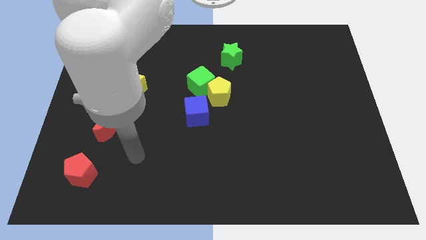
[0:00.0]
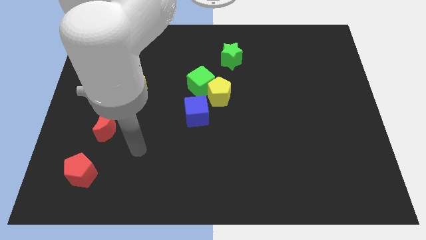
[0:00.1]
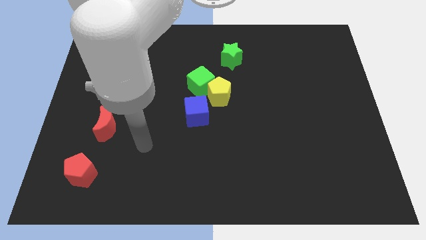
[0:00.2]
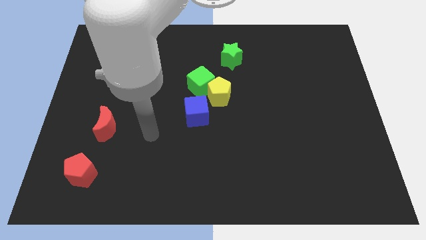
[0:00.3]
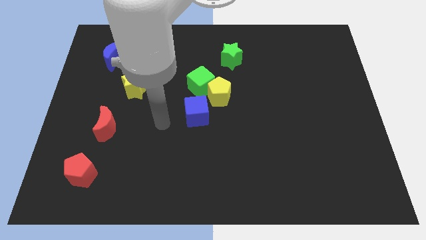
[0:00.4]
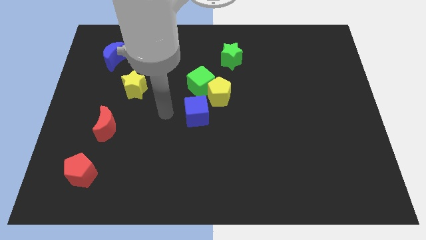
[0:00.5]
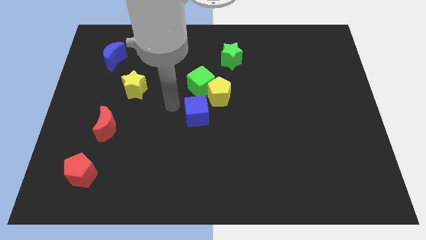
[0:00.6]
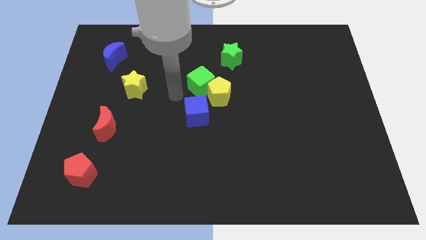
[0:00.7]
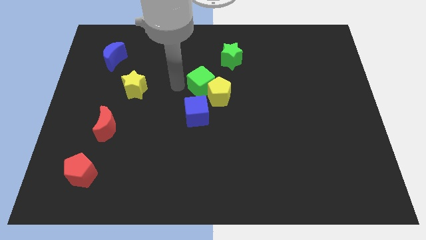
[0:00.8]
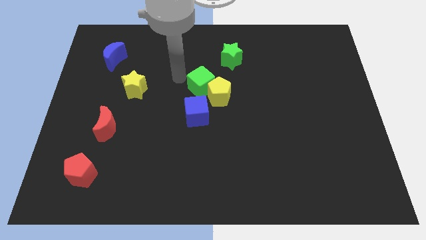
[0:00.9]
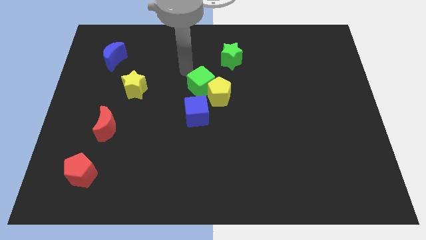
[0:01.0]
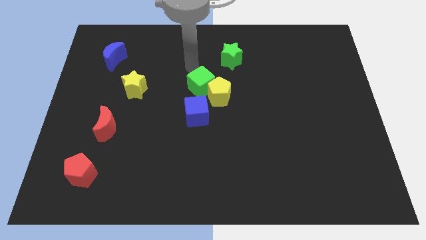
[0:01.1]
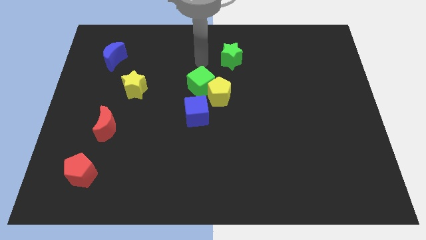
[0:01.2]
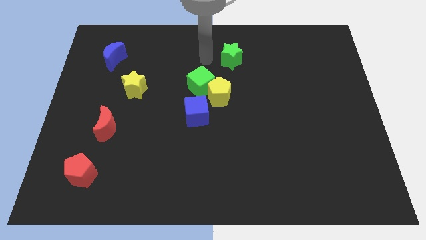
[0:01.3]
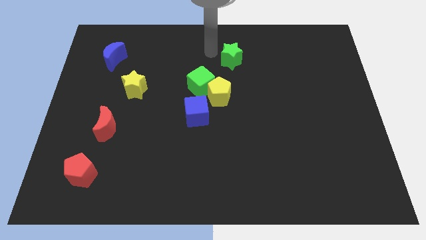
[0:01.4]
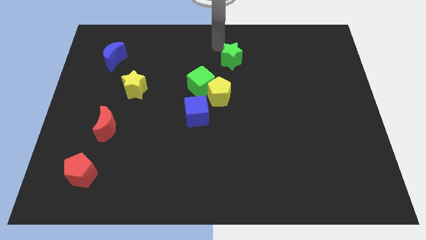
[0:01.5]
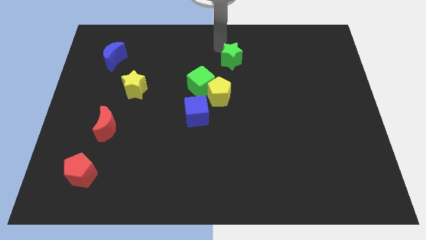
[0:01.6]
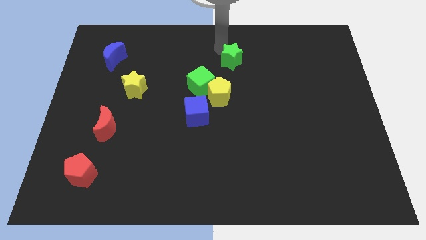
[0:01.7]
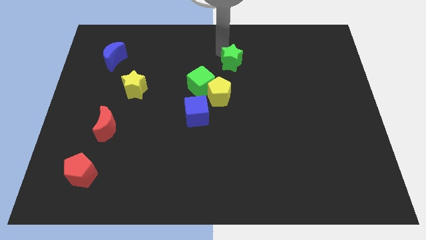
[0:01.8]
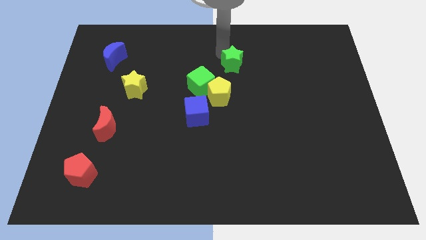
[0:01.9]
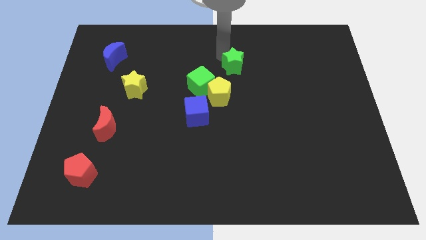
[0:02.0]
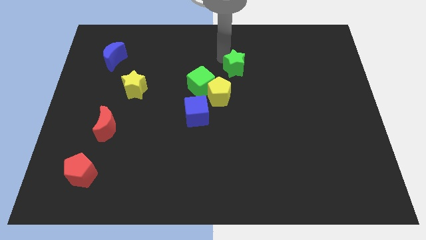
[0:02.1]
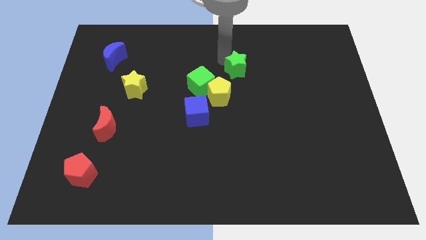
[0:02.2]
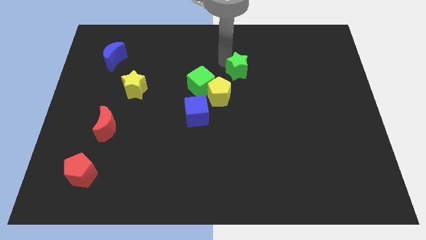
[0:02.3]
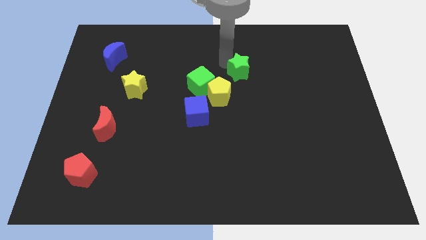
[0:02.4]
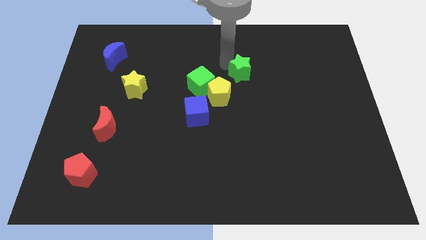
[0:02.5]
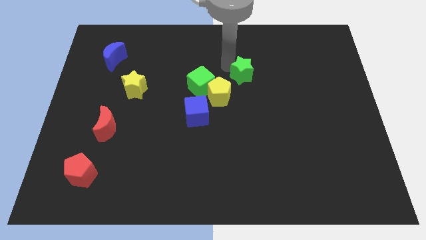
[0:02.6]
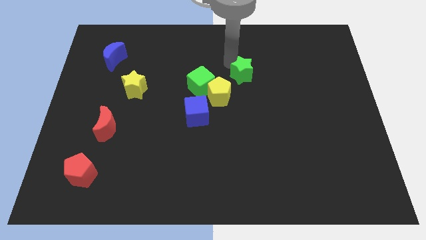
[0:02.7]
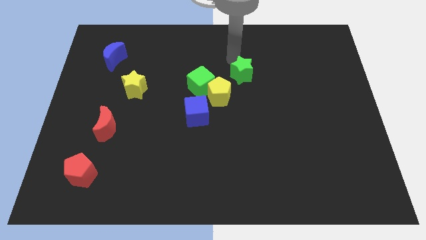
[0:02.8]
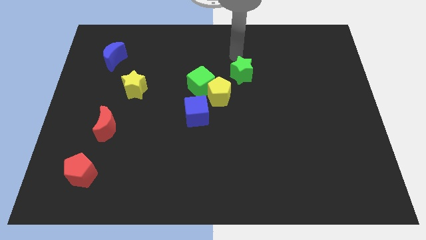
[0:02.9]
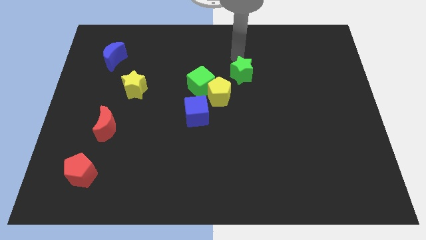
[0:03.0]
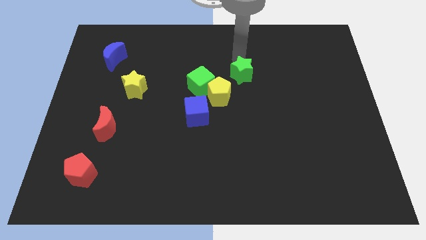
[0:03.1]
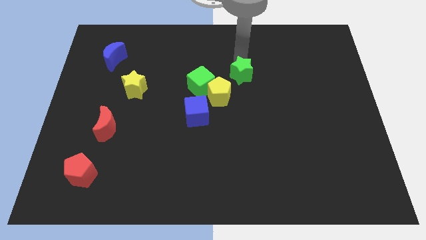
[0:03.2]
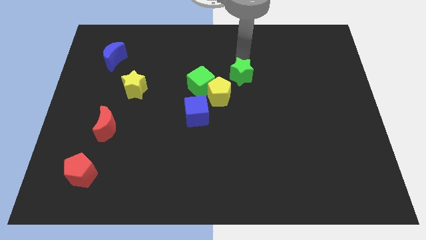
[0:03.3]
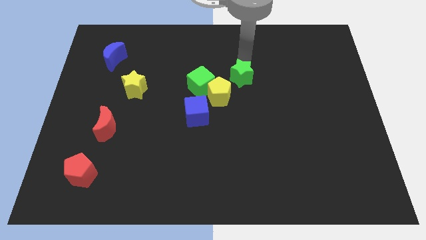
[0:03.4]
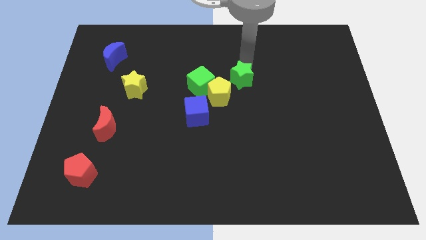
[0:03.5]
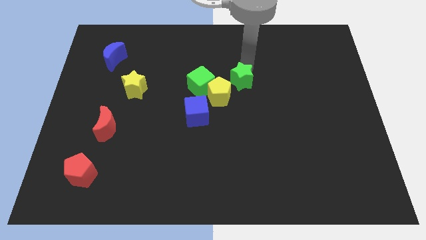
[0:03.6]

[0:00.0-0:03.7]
move the green star downwards a little bit

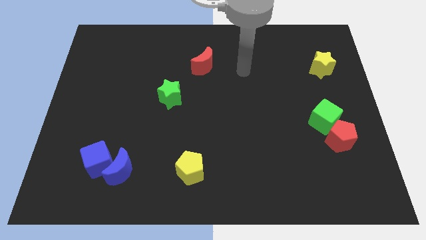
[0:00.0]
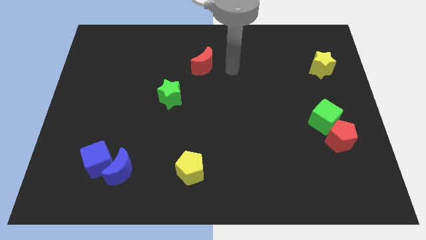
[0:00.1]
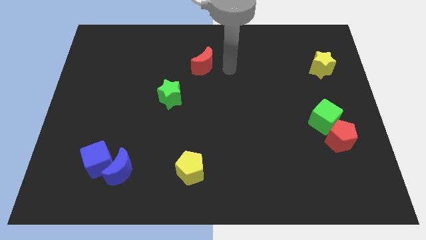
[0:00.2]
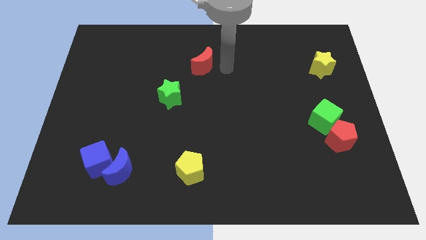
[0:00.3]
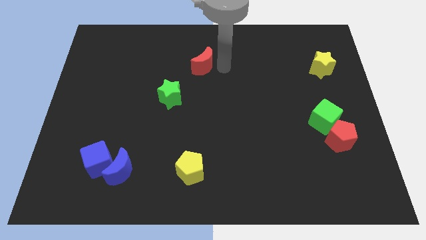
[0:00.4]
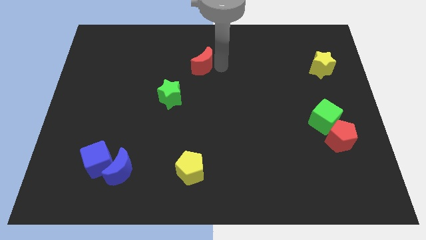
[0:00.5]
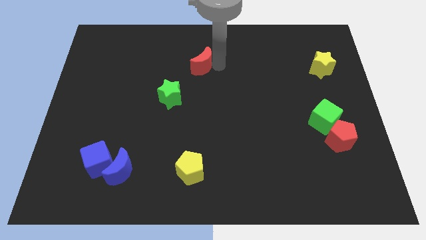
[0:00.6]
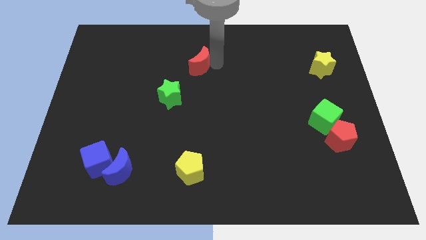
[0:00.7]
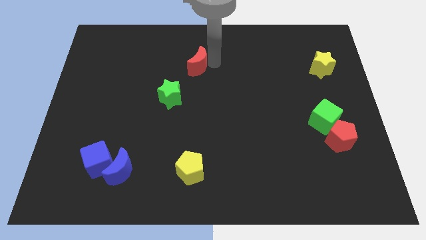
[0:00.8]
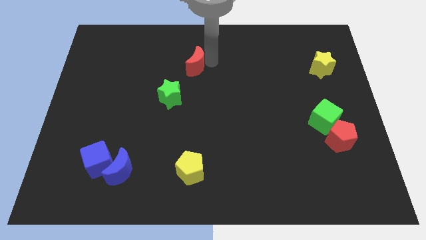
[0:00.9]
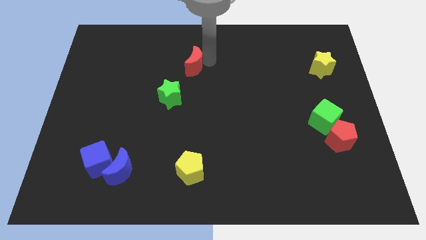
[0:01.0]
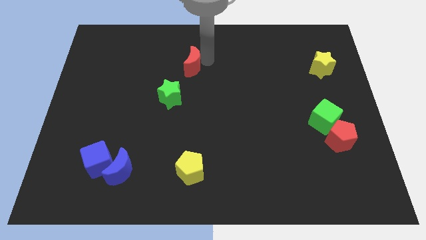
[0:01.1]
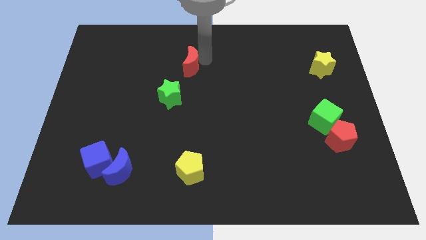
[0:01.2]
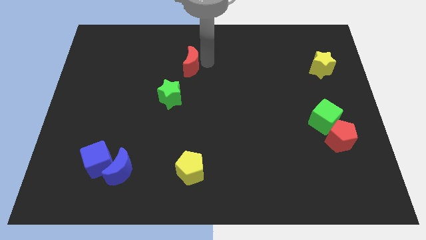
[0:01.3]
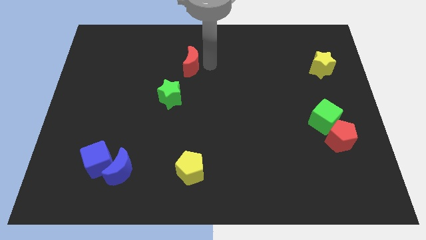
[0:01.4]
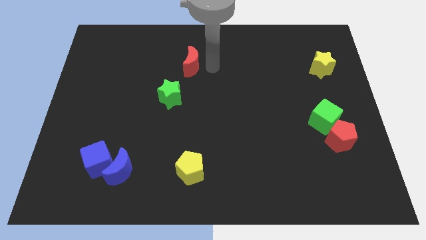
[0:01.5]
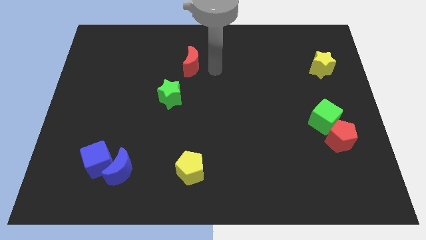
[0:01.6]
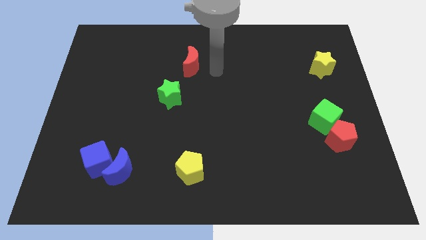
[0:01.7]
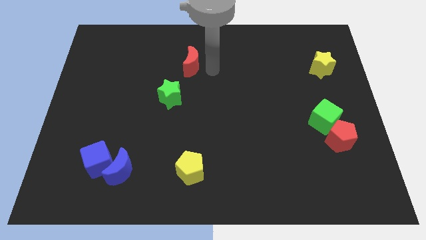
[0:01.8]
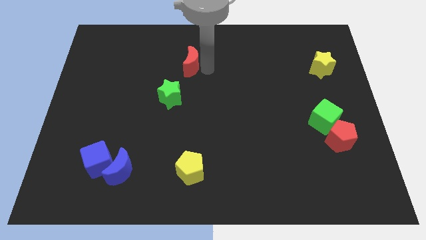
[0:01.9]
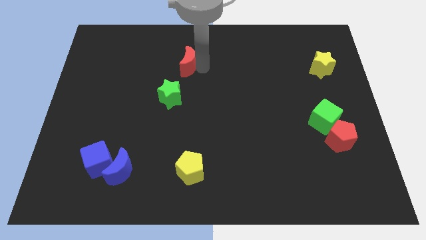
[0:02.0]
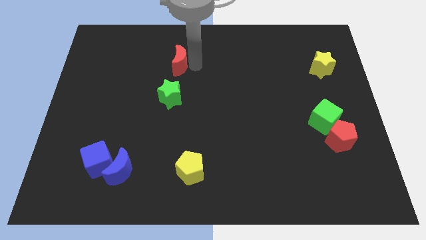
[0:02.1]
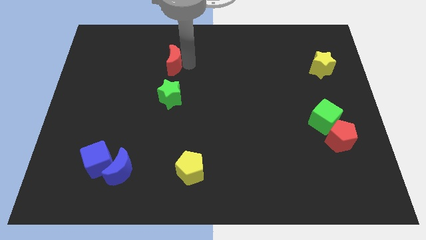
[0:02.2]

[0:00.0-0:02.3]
slightly move the red moon left

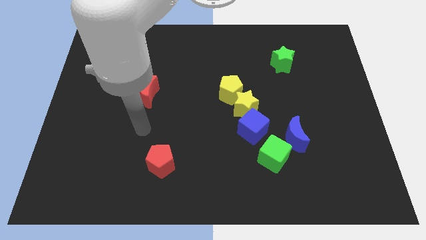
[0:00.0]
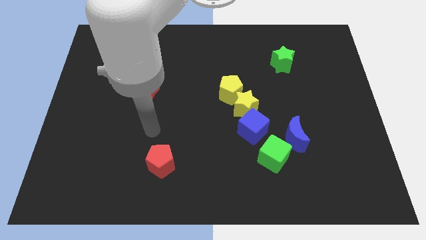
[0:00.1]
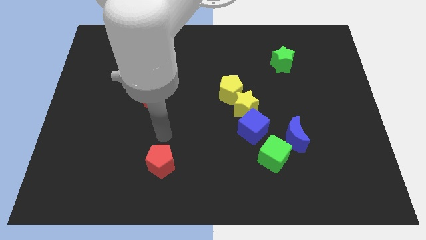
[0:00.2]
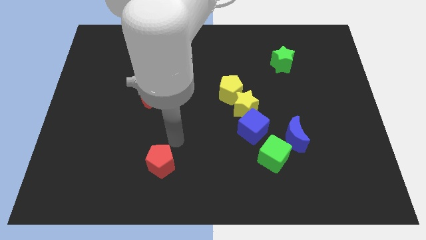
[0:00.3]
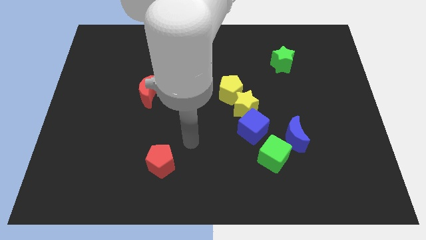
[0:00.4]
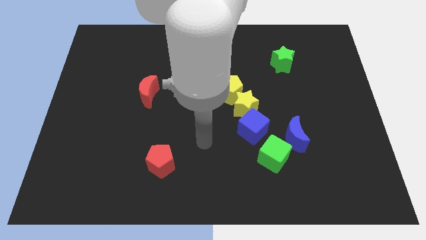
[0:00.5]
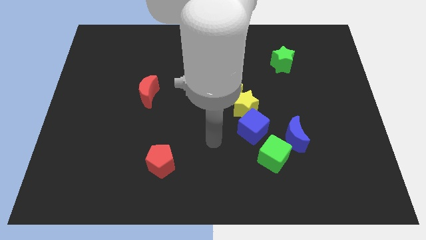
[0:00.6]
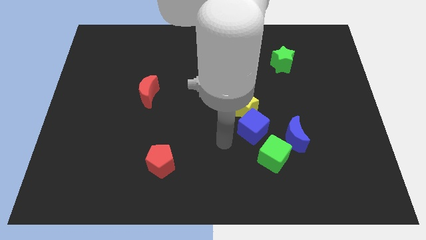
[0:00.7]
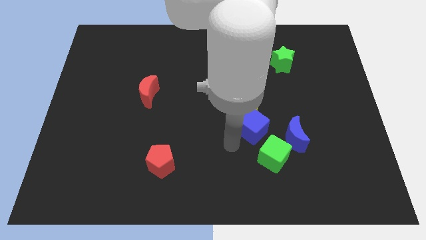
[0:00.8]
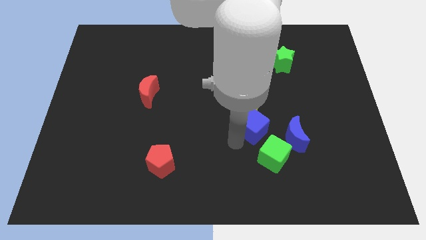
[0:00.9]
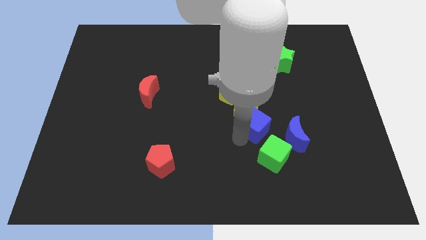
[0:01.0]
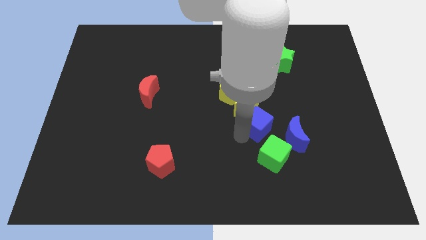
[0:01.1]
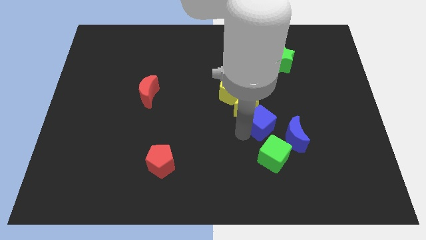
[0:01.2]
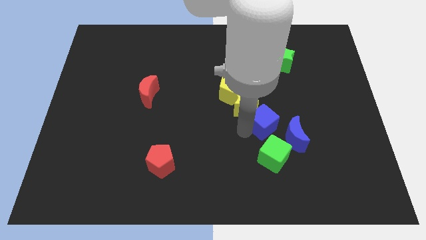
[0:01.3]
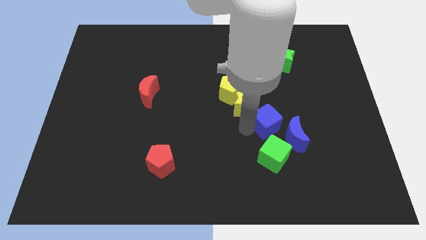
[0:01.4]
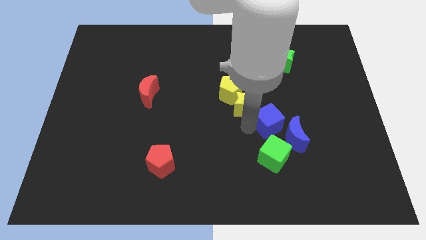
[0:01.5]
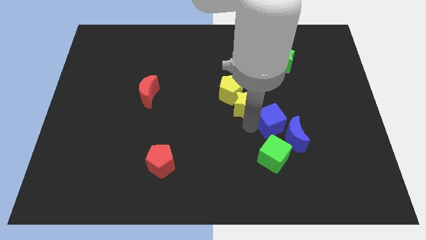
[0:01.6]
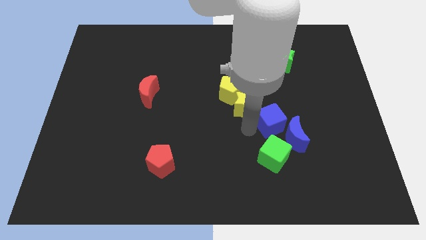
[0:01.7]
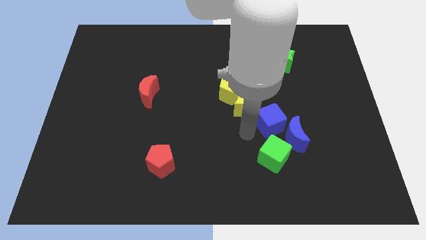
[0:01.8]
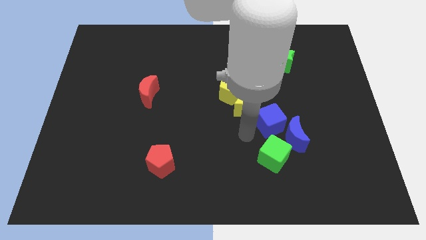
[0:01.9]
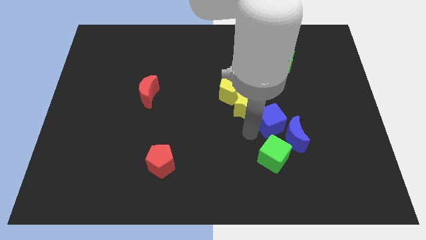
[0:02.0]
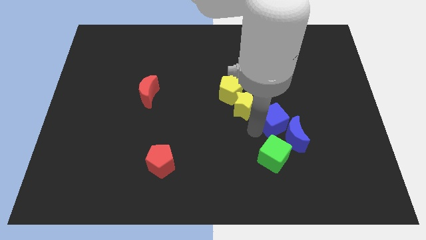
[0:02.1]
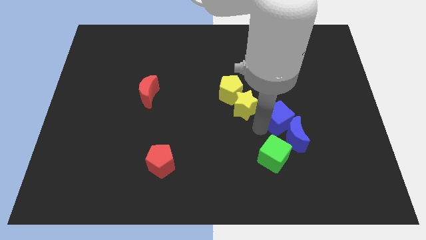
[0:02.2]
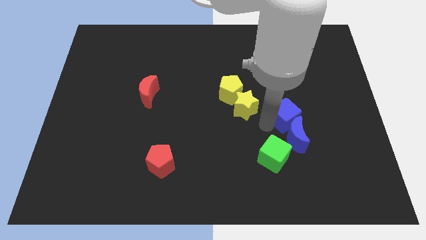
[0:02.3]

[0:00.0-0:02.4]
slightly push the blue cube right
